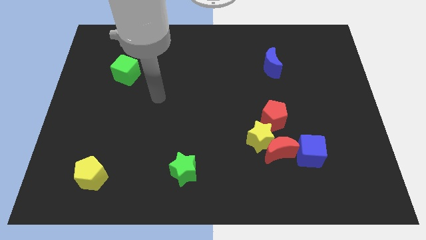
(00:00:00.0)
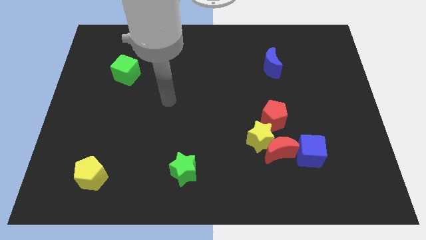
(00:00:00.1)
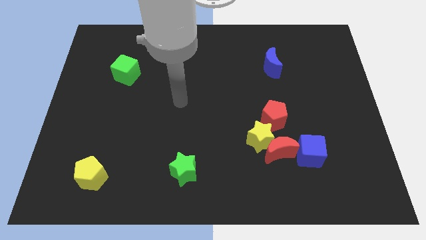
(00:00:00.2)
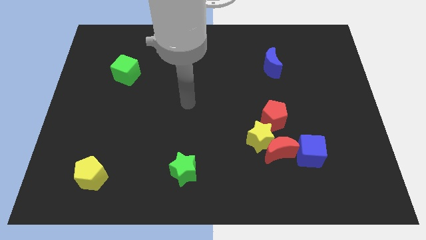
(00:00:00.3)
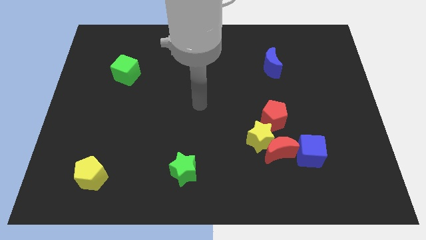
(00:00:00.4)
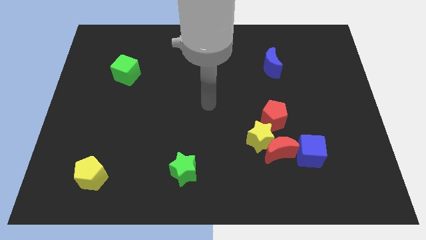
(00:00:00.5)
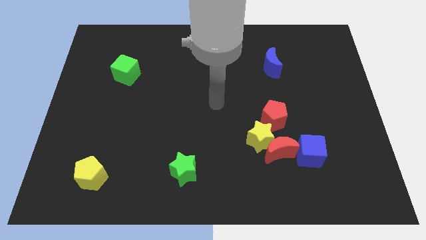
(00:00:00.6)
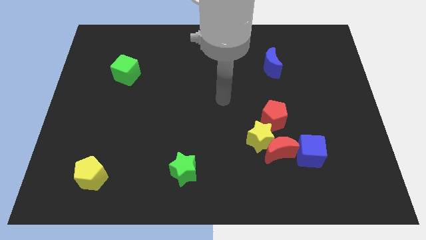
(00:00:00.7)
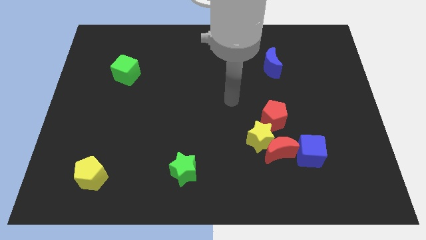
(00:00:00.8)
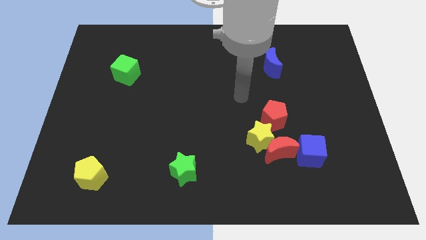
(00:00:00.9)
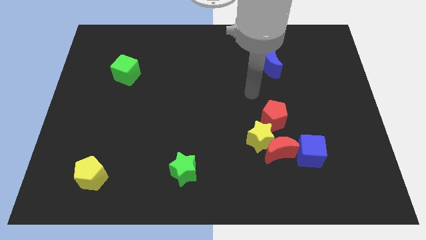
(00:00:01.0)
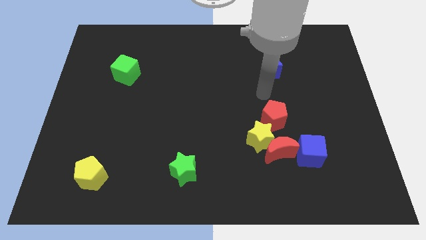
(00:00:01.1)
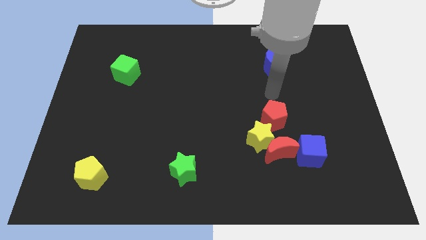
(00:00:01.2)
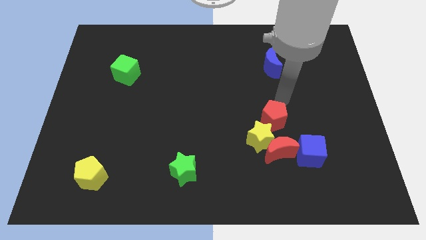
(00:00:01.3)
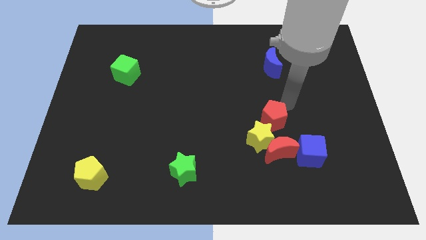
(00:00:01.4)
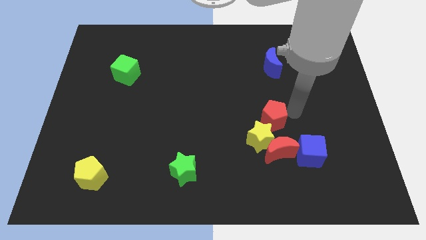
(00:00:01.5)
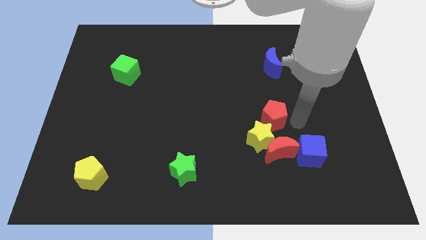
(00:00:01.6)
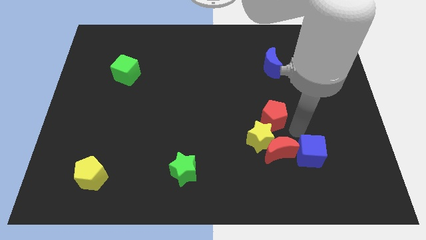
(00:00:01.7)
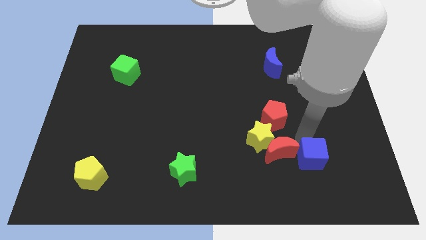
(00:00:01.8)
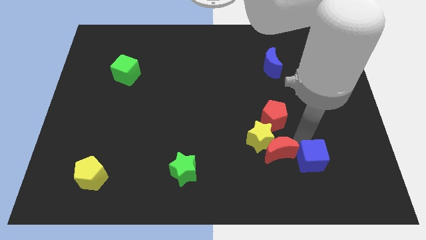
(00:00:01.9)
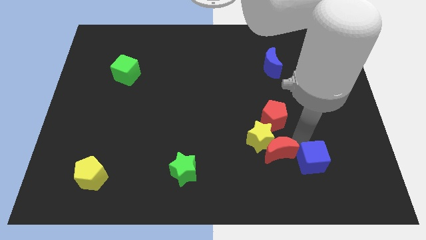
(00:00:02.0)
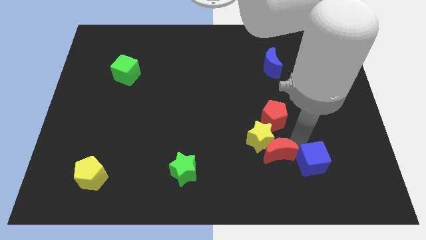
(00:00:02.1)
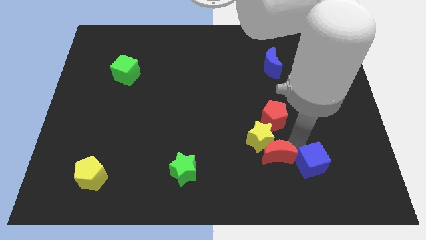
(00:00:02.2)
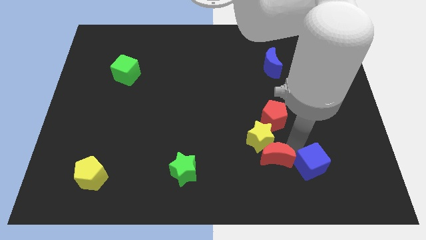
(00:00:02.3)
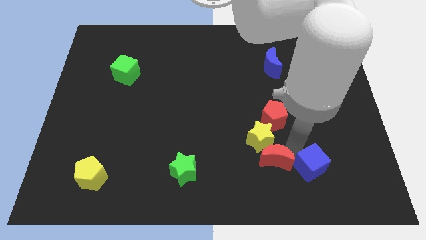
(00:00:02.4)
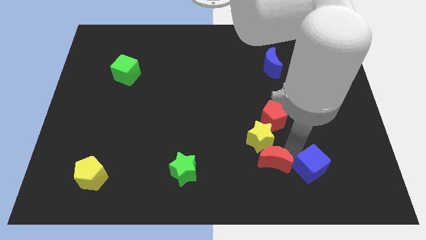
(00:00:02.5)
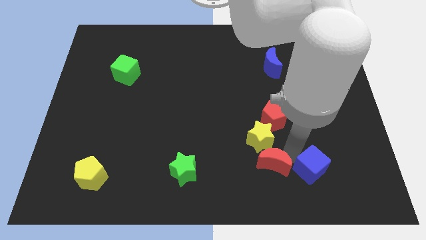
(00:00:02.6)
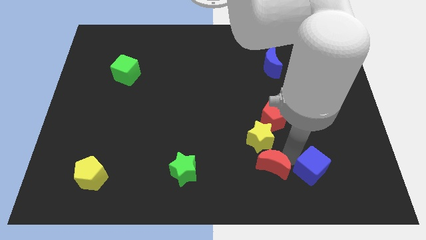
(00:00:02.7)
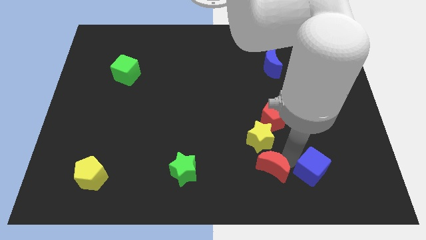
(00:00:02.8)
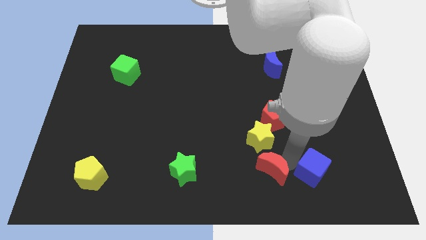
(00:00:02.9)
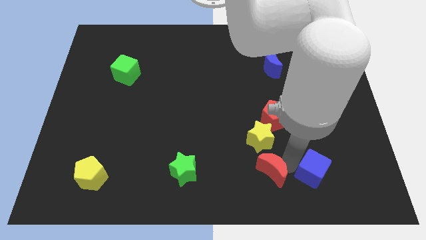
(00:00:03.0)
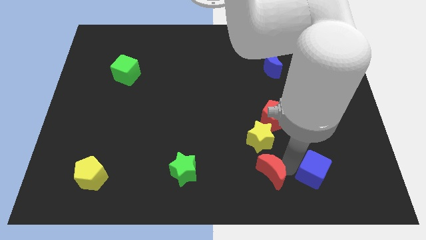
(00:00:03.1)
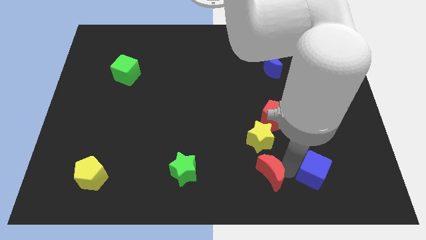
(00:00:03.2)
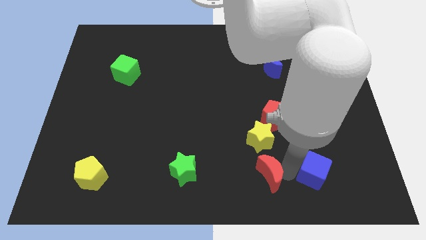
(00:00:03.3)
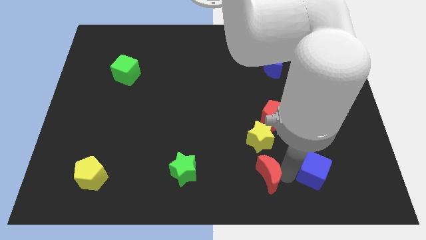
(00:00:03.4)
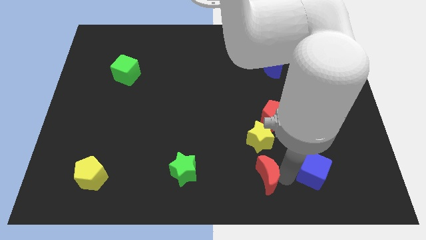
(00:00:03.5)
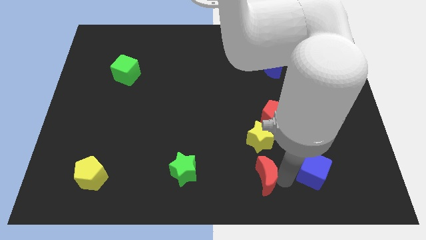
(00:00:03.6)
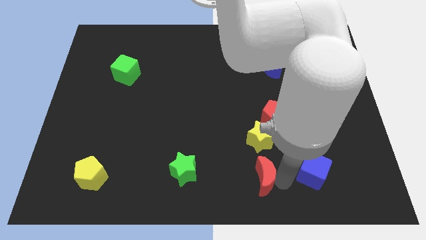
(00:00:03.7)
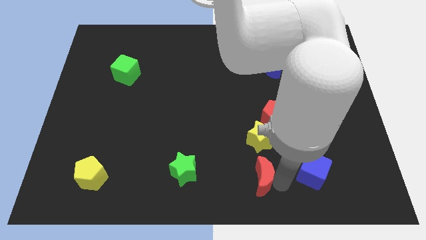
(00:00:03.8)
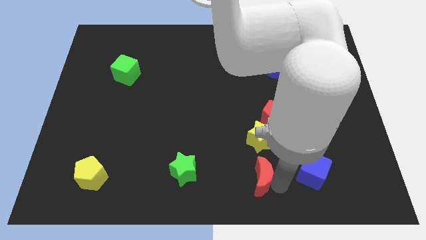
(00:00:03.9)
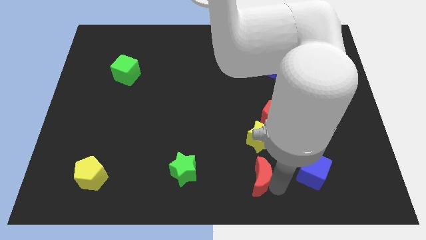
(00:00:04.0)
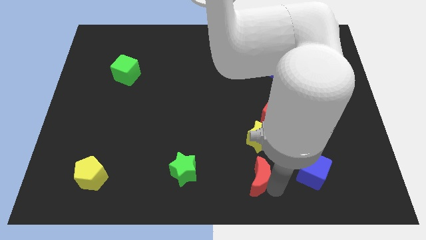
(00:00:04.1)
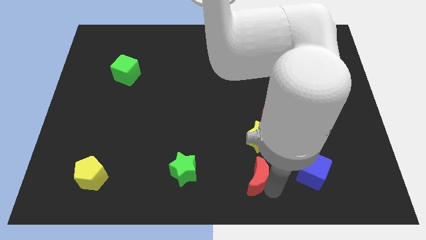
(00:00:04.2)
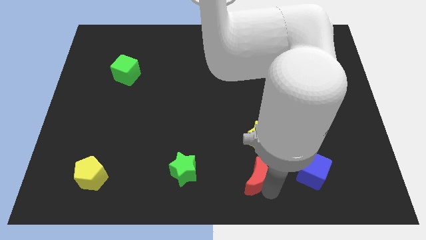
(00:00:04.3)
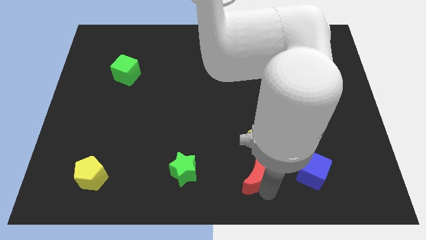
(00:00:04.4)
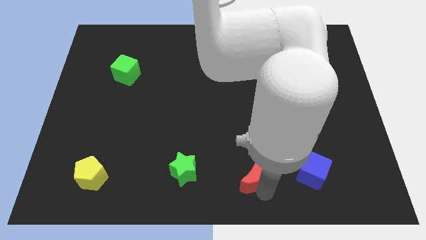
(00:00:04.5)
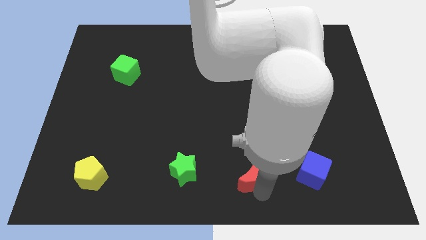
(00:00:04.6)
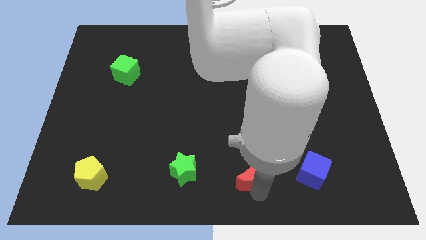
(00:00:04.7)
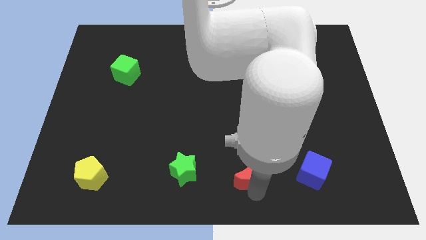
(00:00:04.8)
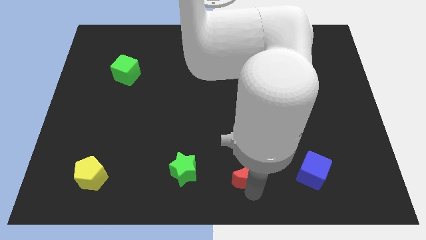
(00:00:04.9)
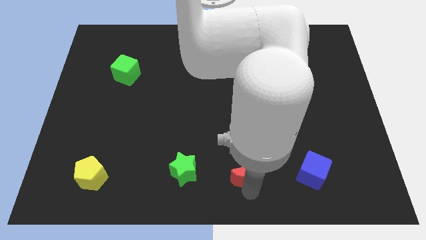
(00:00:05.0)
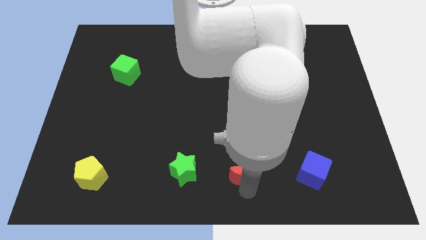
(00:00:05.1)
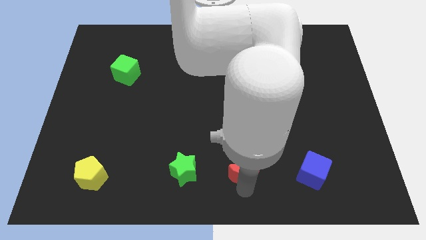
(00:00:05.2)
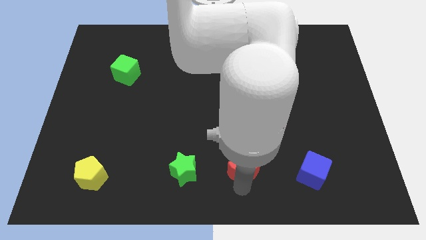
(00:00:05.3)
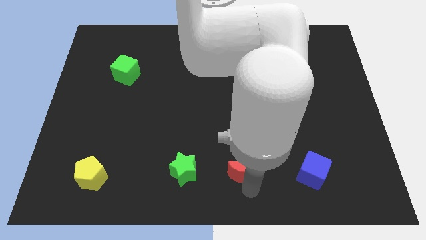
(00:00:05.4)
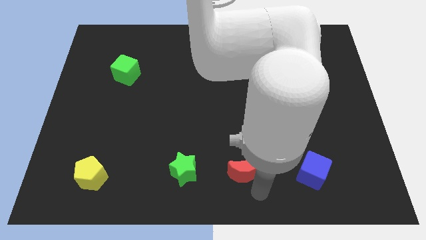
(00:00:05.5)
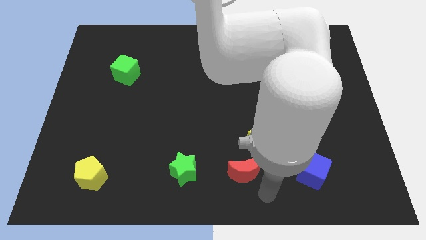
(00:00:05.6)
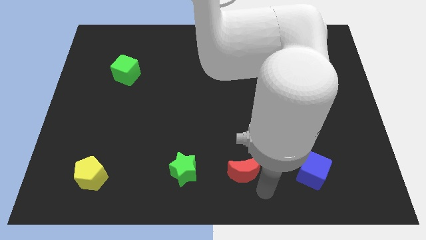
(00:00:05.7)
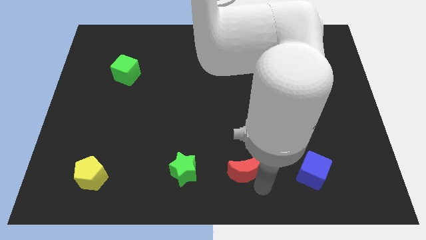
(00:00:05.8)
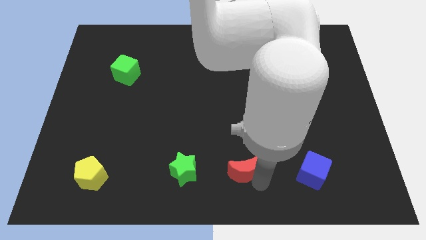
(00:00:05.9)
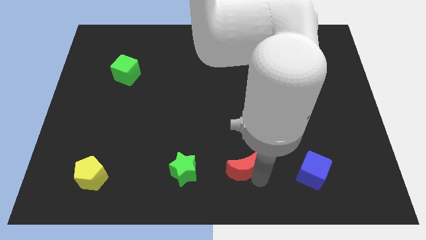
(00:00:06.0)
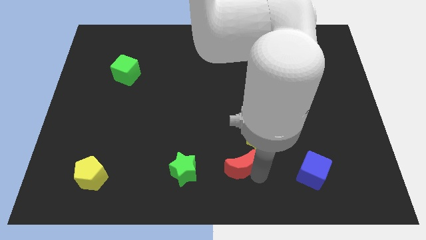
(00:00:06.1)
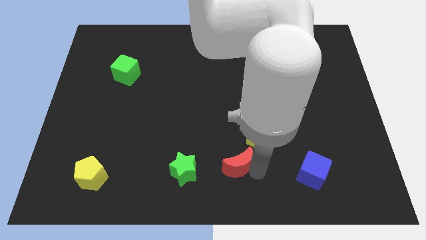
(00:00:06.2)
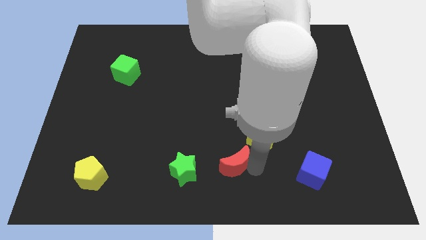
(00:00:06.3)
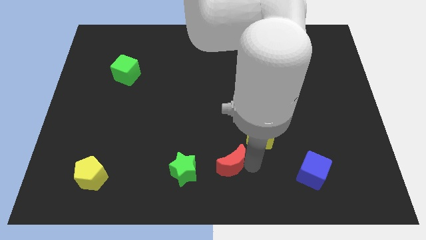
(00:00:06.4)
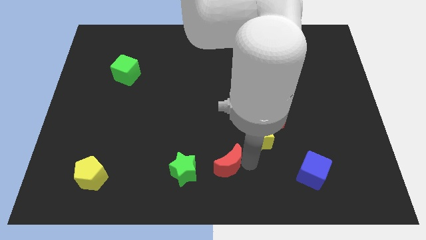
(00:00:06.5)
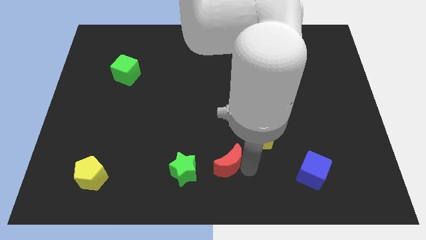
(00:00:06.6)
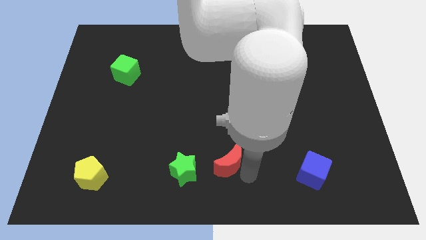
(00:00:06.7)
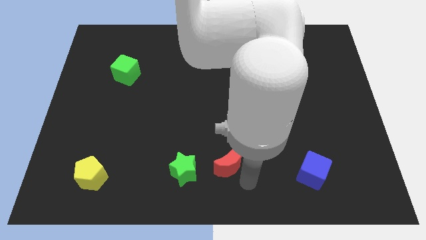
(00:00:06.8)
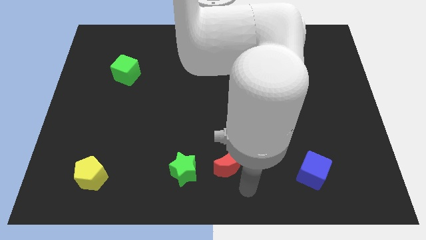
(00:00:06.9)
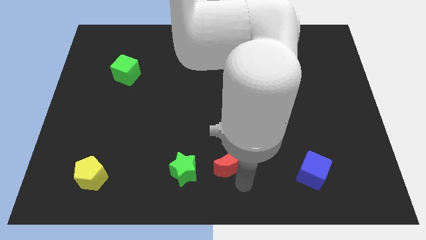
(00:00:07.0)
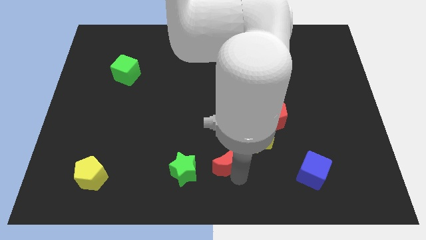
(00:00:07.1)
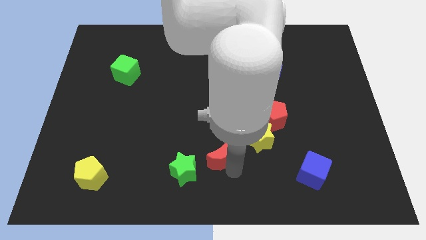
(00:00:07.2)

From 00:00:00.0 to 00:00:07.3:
put the red moon to the left side of the yellow star

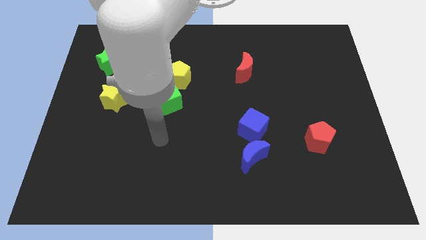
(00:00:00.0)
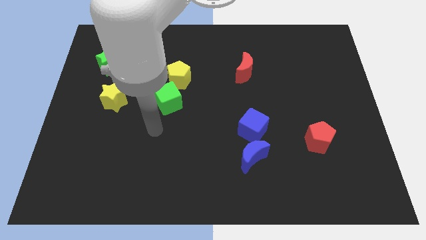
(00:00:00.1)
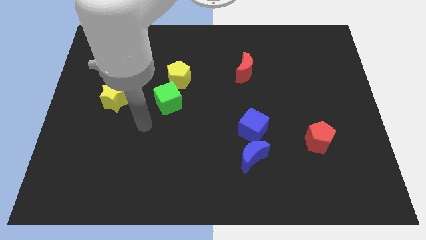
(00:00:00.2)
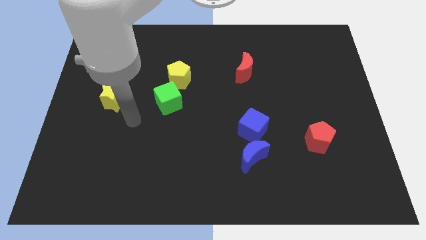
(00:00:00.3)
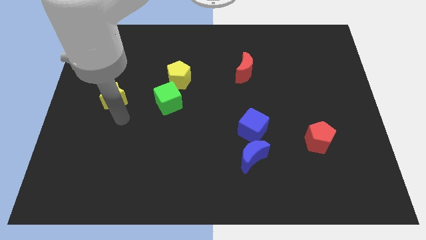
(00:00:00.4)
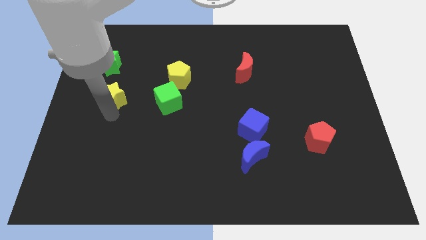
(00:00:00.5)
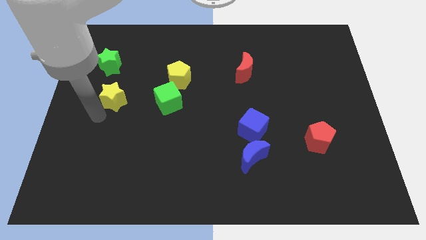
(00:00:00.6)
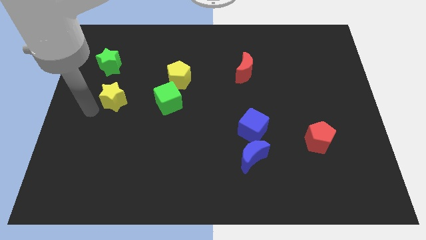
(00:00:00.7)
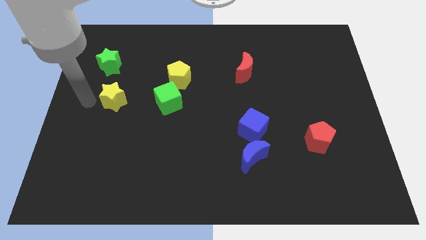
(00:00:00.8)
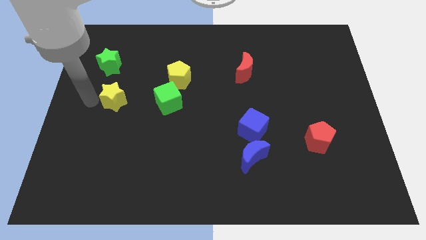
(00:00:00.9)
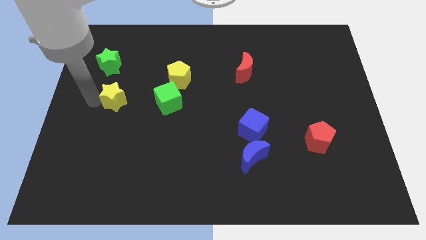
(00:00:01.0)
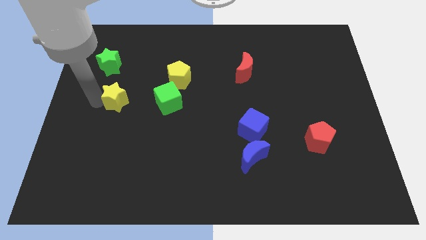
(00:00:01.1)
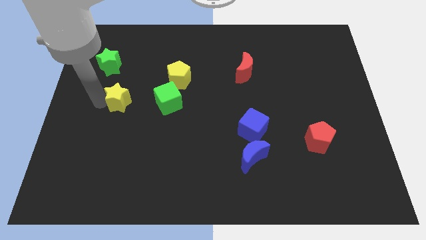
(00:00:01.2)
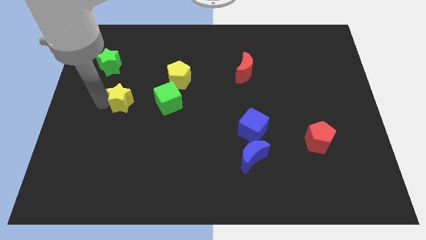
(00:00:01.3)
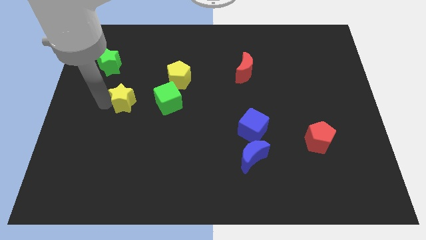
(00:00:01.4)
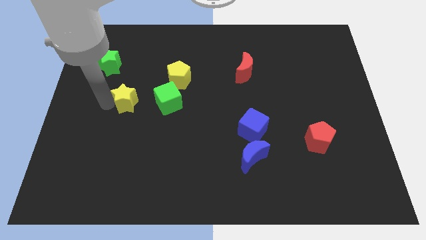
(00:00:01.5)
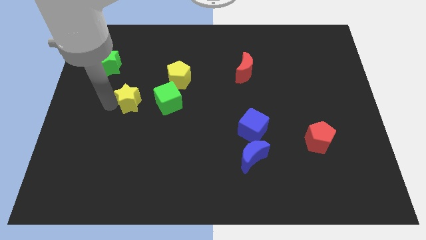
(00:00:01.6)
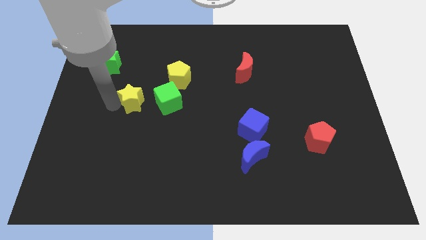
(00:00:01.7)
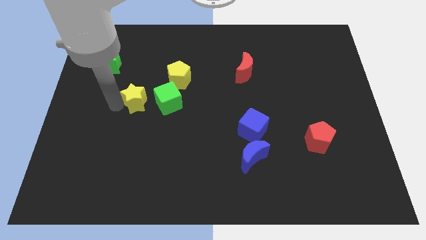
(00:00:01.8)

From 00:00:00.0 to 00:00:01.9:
put the yellow star diagonally down and to the left of the yellow pentagon
